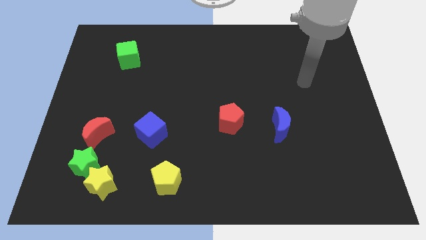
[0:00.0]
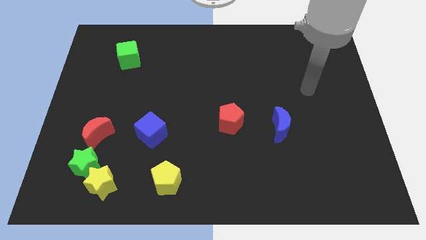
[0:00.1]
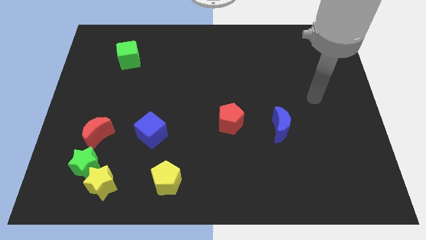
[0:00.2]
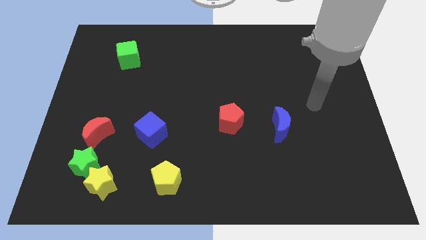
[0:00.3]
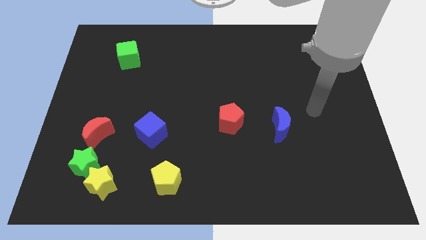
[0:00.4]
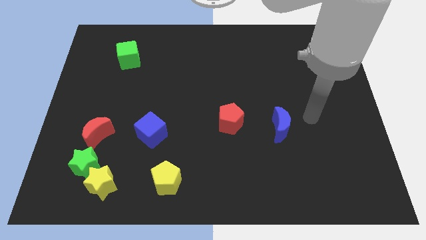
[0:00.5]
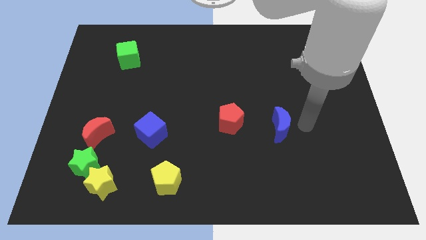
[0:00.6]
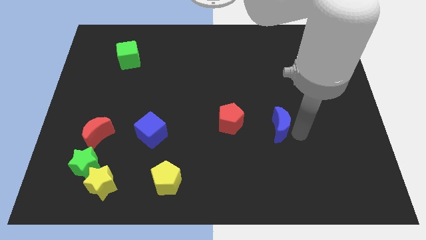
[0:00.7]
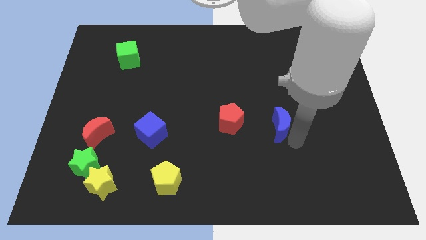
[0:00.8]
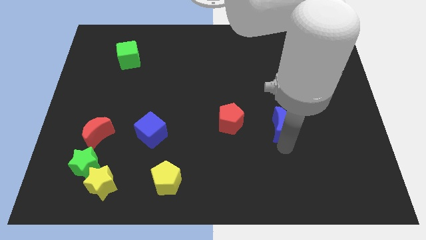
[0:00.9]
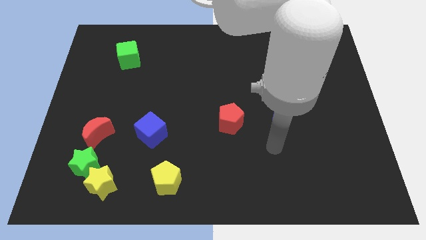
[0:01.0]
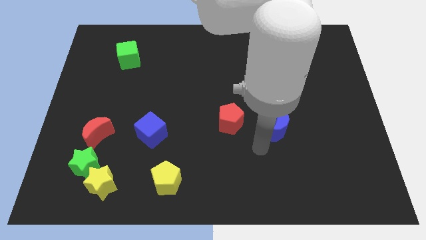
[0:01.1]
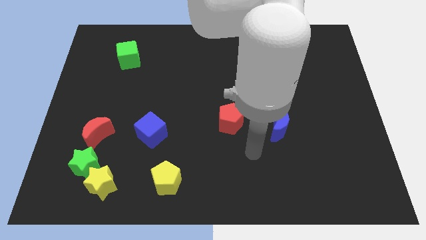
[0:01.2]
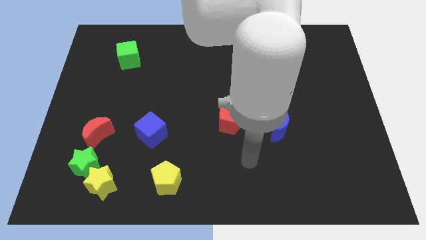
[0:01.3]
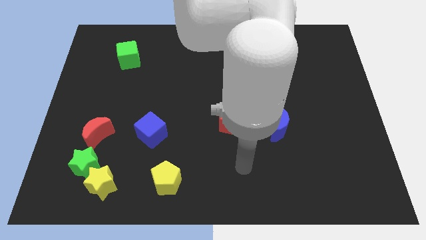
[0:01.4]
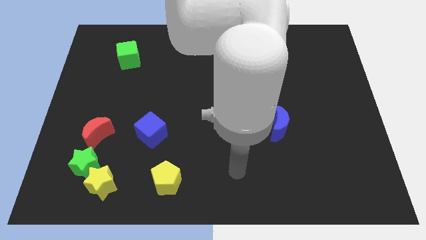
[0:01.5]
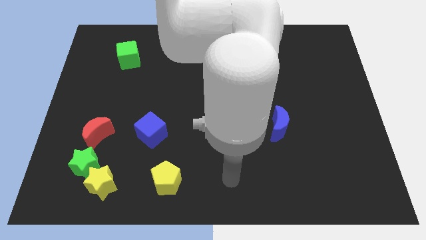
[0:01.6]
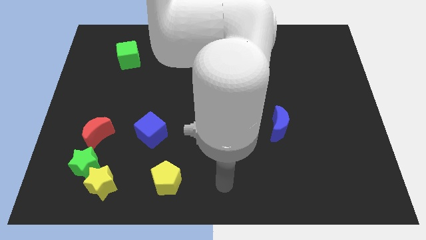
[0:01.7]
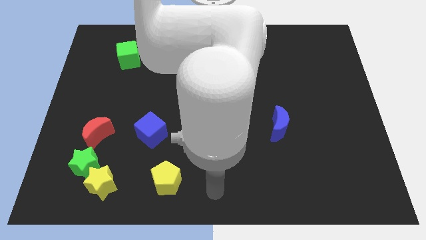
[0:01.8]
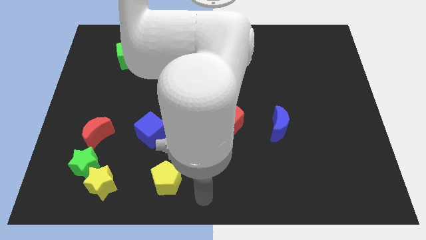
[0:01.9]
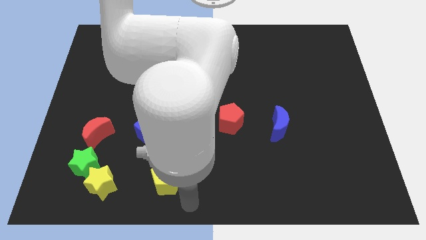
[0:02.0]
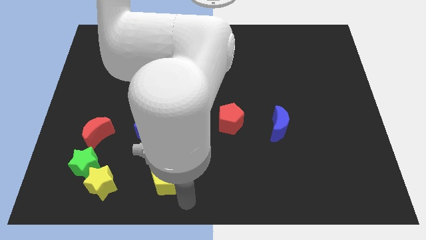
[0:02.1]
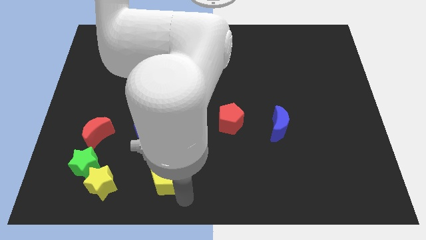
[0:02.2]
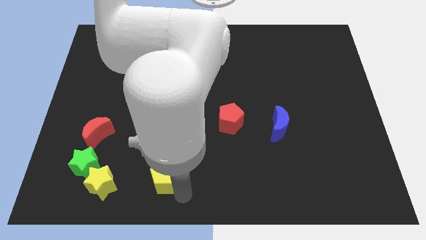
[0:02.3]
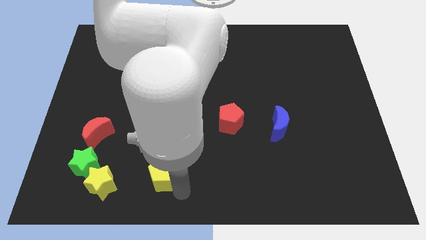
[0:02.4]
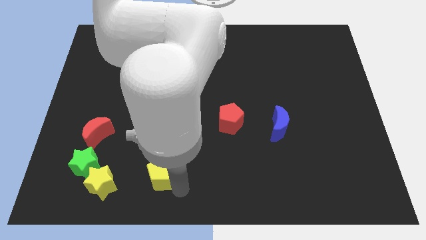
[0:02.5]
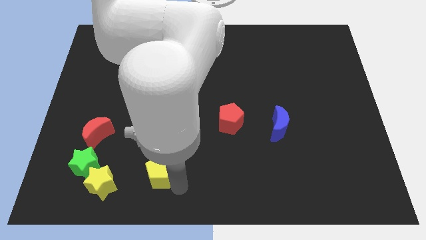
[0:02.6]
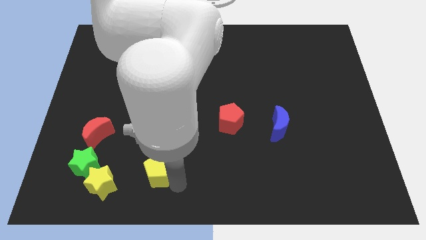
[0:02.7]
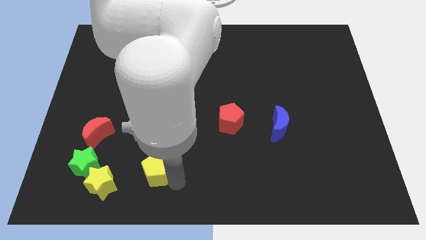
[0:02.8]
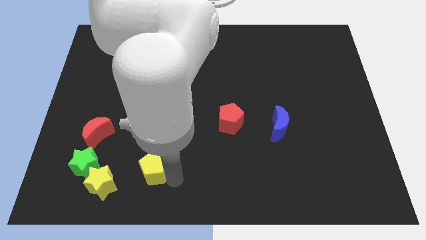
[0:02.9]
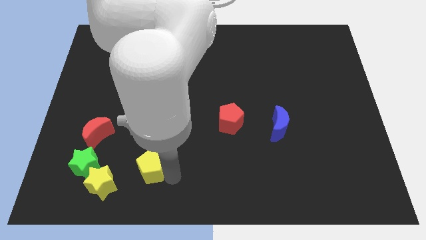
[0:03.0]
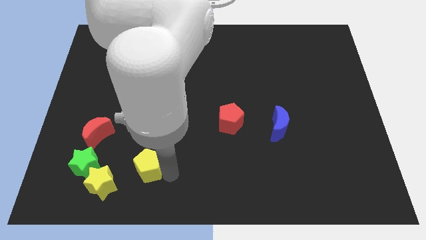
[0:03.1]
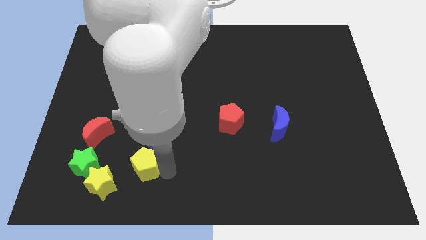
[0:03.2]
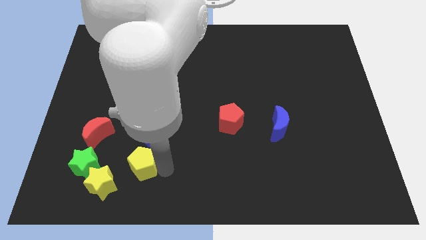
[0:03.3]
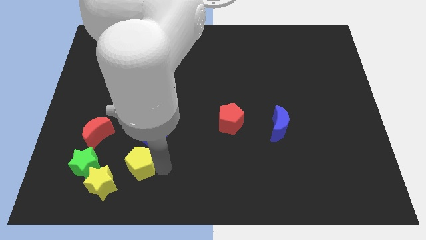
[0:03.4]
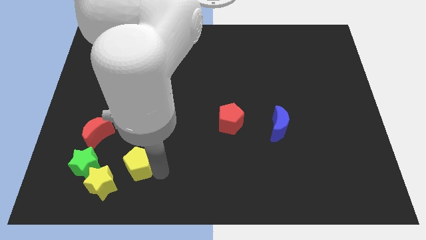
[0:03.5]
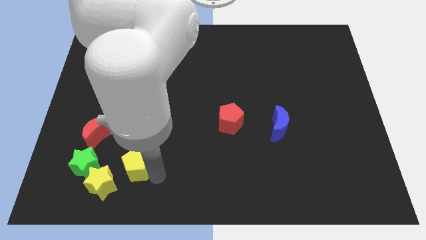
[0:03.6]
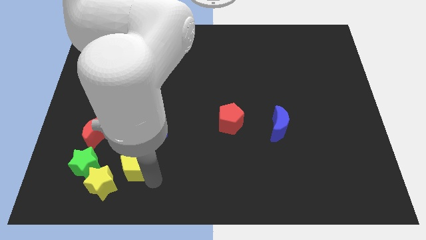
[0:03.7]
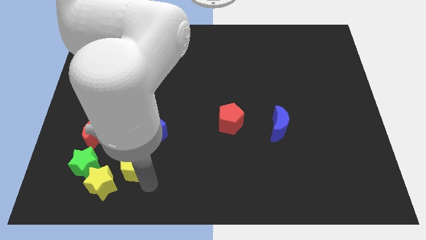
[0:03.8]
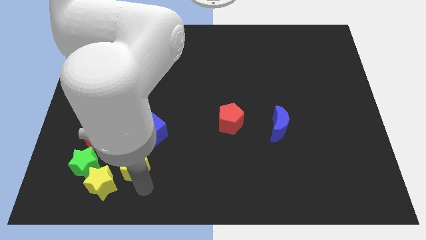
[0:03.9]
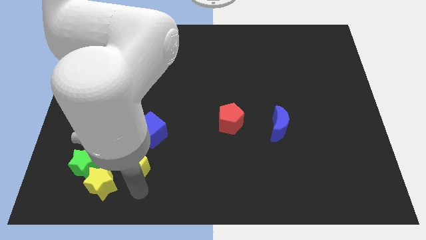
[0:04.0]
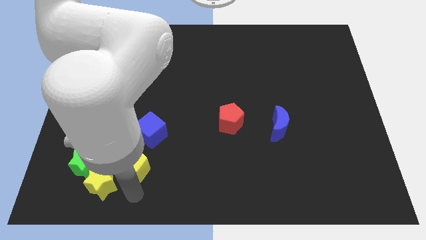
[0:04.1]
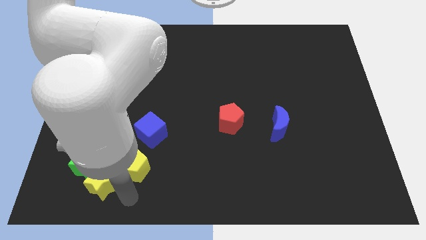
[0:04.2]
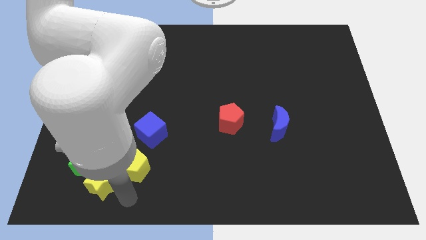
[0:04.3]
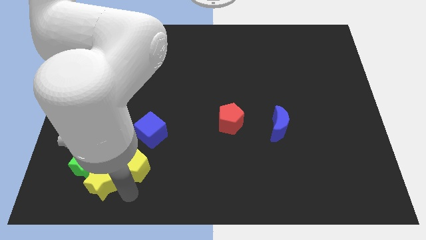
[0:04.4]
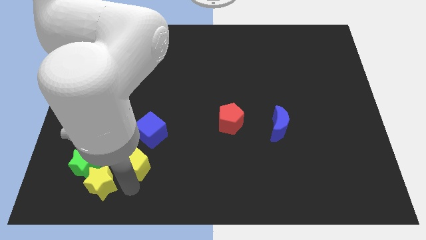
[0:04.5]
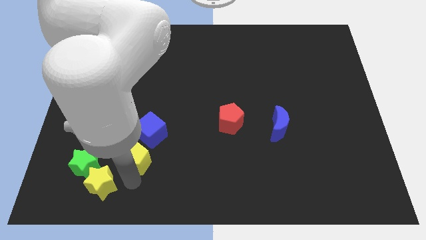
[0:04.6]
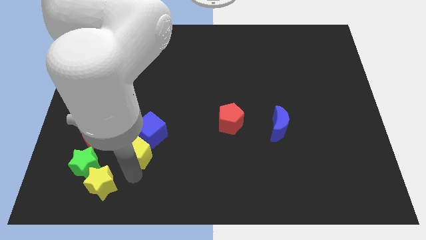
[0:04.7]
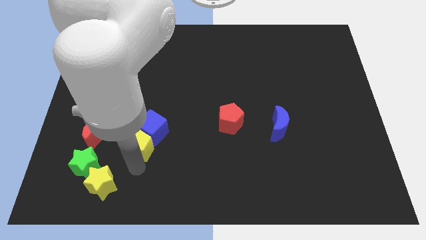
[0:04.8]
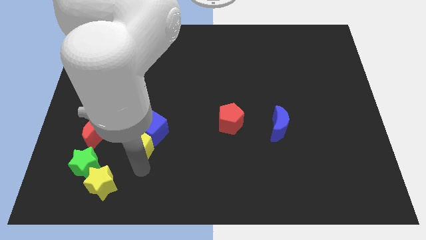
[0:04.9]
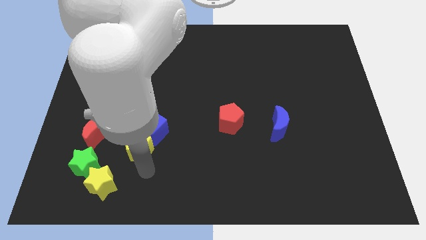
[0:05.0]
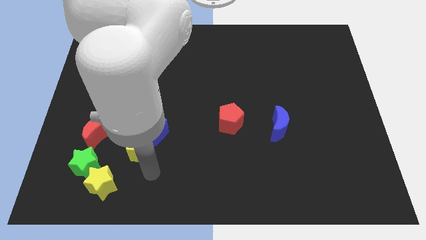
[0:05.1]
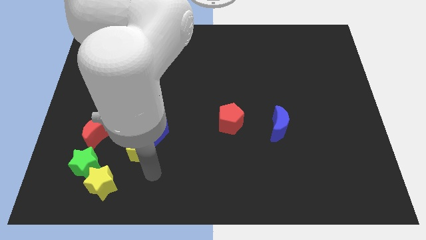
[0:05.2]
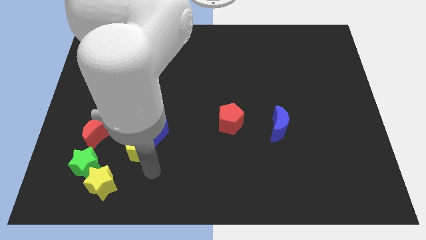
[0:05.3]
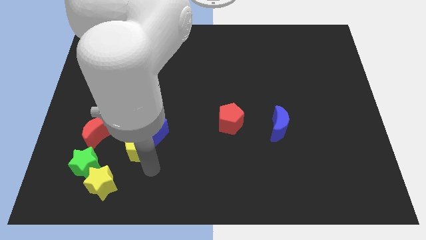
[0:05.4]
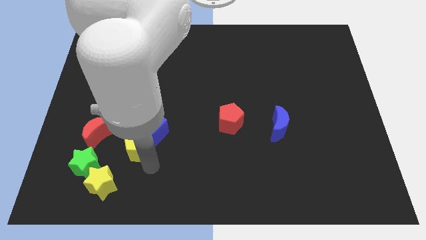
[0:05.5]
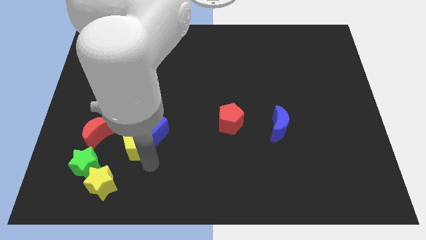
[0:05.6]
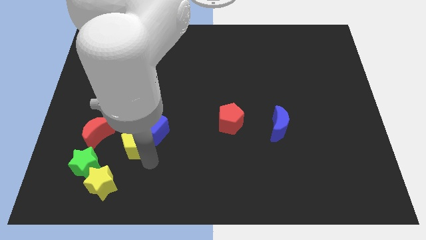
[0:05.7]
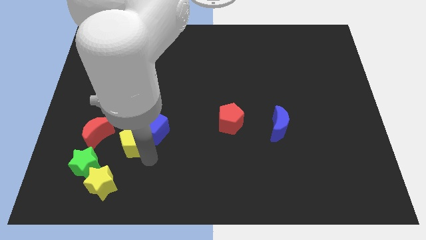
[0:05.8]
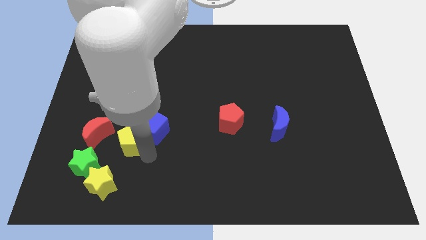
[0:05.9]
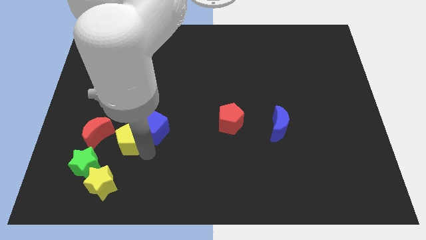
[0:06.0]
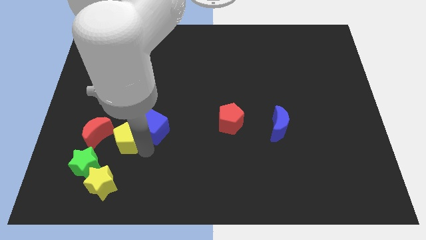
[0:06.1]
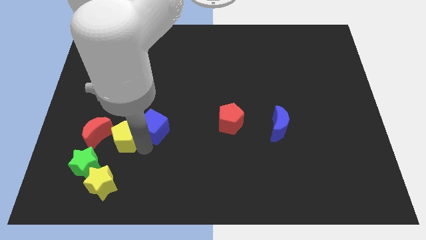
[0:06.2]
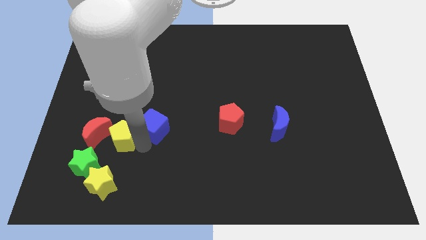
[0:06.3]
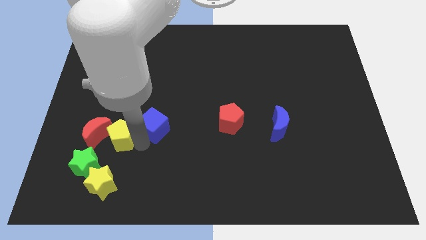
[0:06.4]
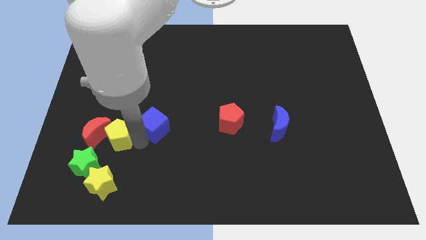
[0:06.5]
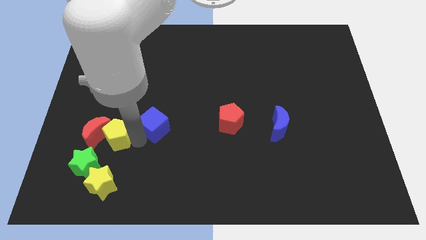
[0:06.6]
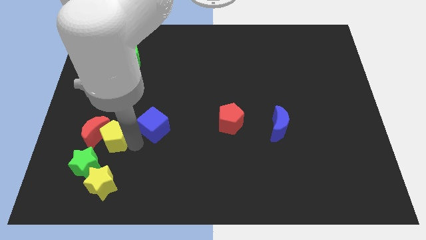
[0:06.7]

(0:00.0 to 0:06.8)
put the yellow pentagon to the top of the green star
